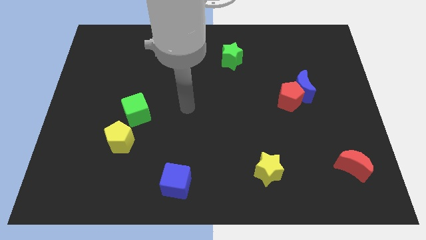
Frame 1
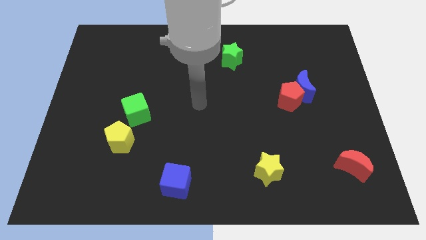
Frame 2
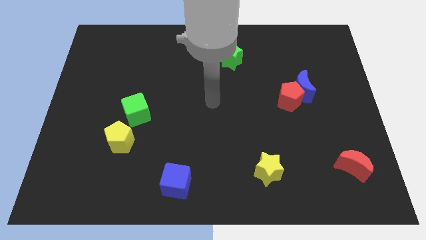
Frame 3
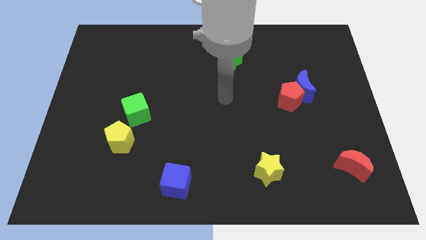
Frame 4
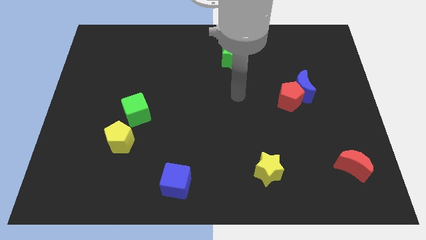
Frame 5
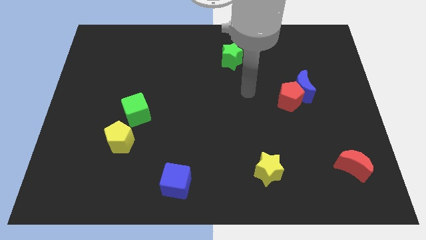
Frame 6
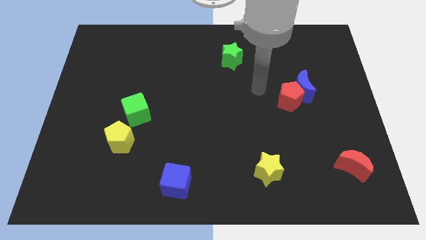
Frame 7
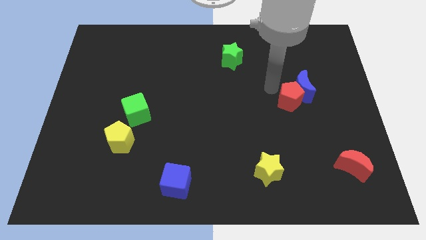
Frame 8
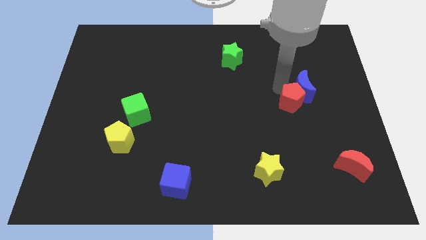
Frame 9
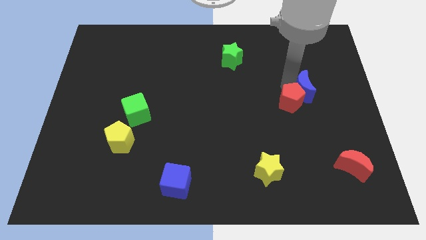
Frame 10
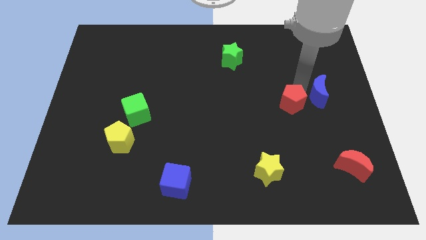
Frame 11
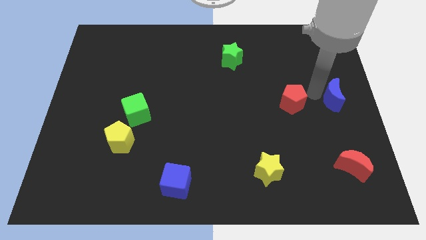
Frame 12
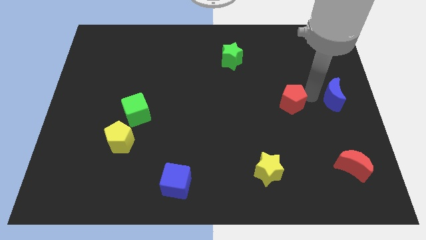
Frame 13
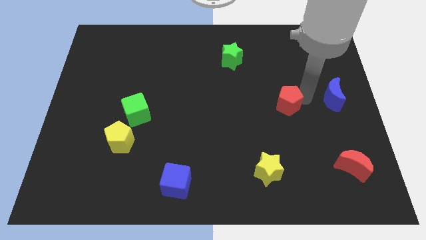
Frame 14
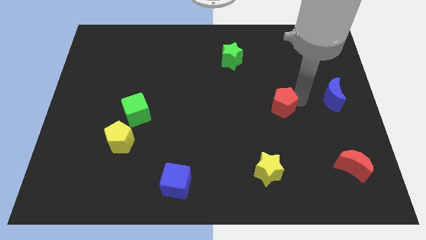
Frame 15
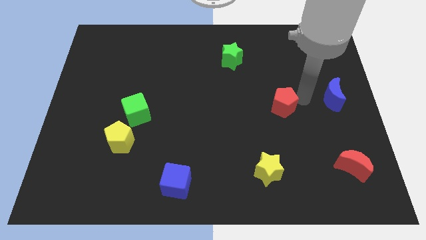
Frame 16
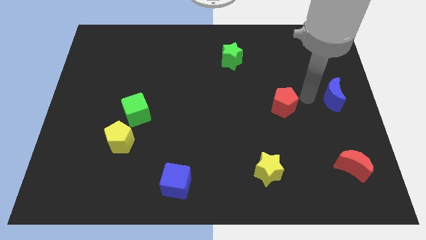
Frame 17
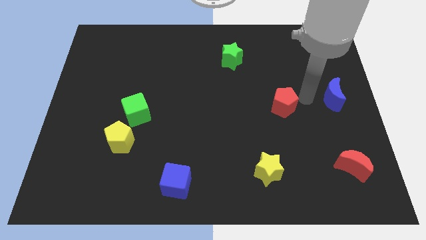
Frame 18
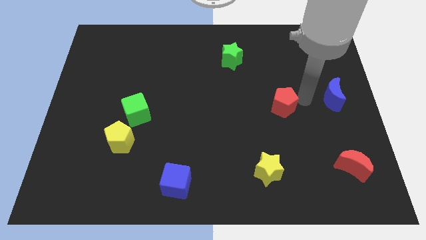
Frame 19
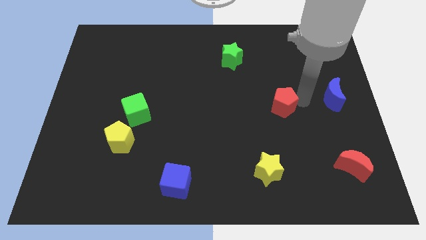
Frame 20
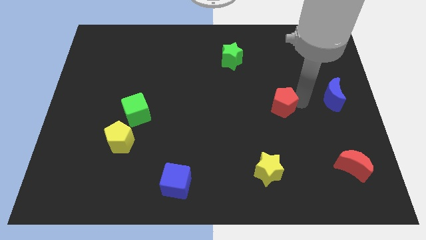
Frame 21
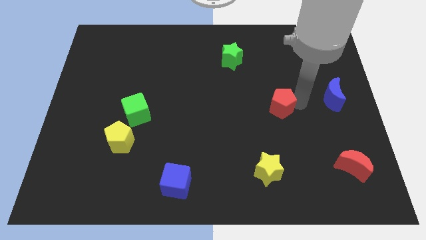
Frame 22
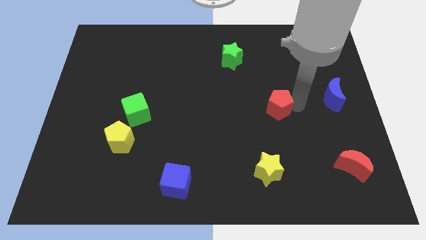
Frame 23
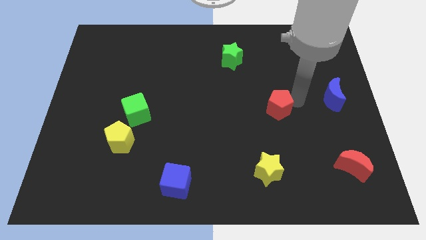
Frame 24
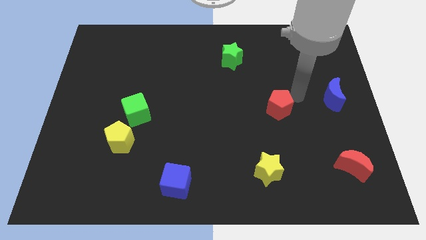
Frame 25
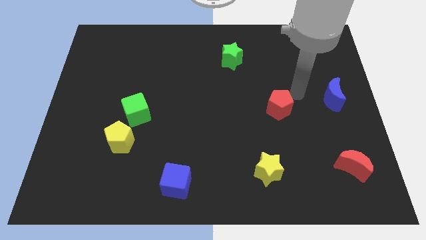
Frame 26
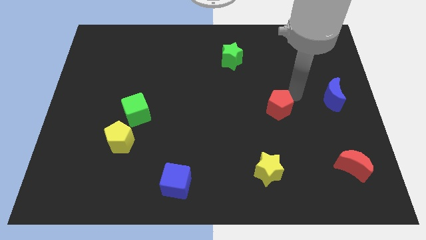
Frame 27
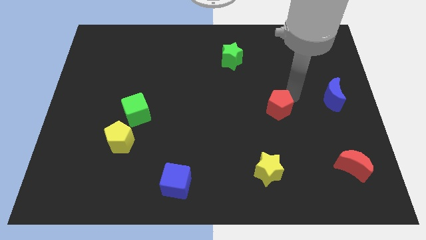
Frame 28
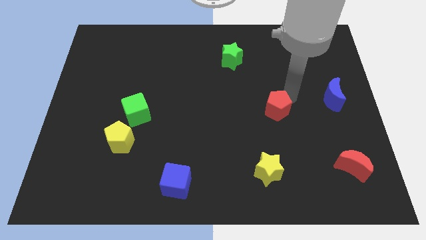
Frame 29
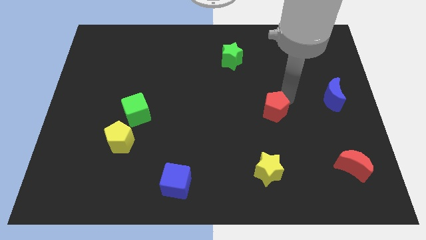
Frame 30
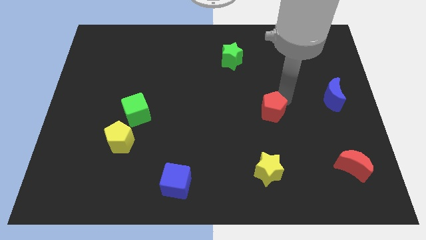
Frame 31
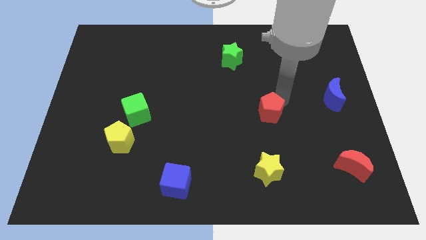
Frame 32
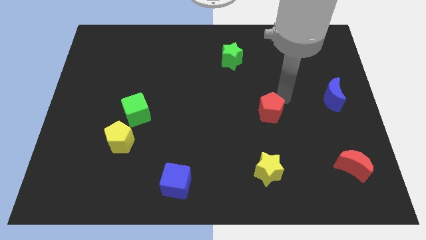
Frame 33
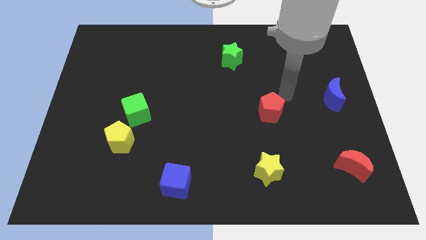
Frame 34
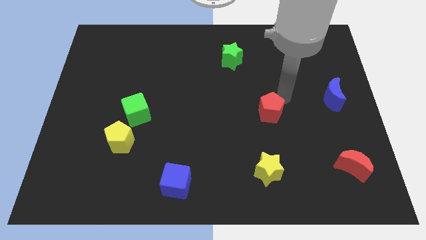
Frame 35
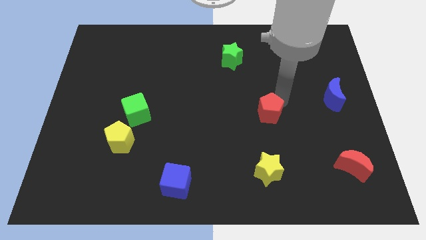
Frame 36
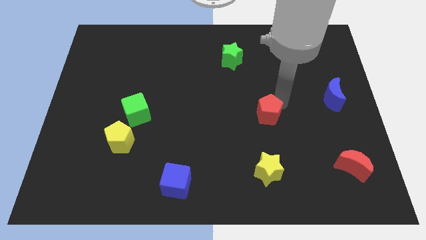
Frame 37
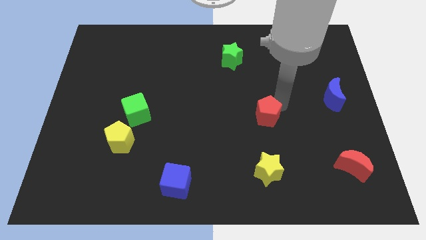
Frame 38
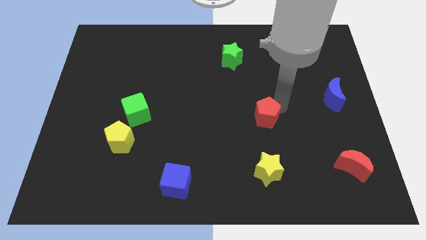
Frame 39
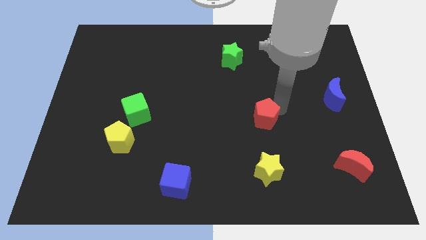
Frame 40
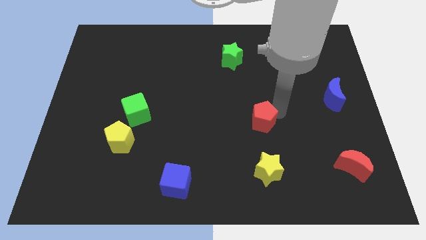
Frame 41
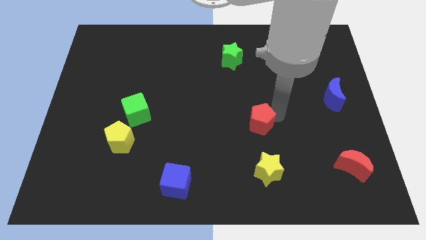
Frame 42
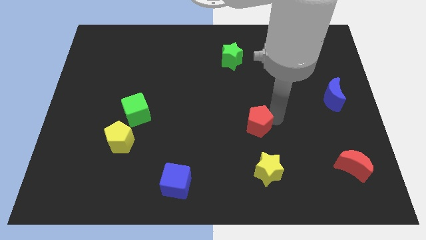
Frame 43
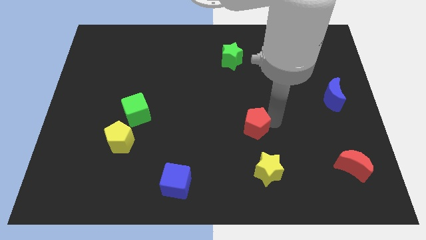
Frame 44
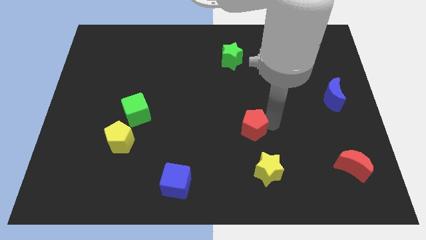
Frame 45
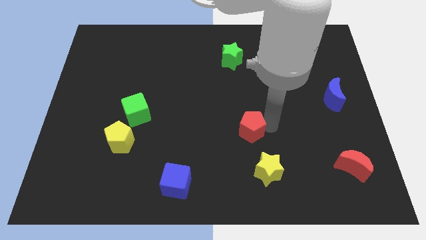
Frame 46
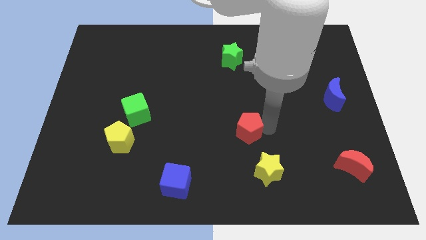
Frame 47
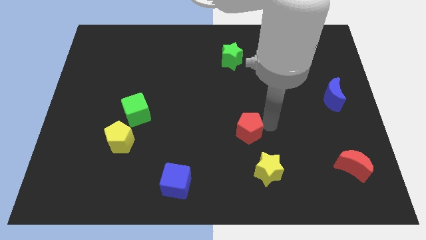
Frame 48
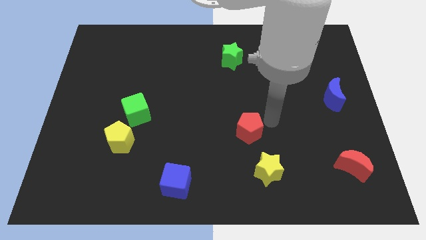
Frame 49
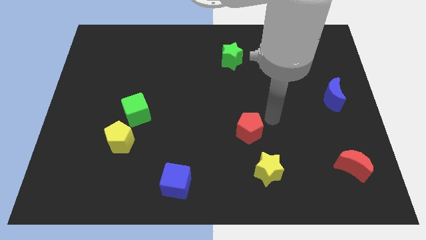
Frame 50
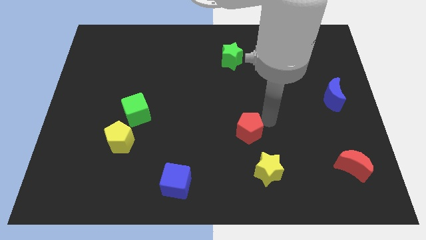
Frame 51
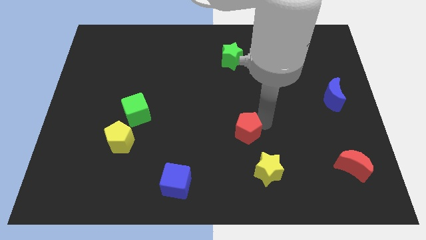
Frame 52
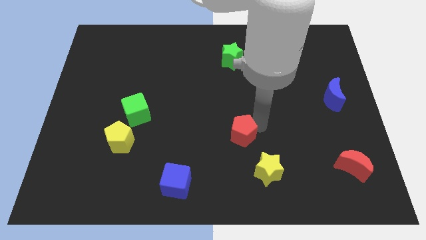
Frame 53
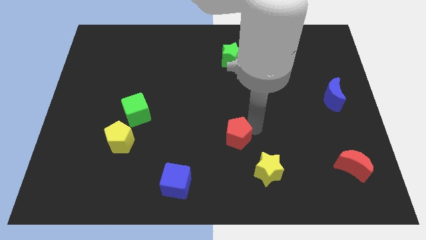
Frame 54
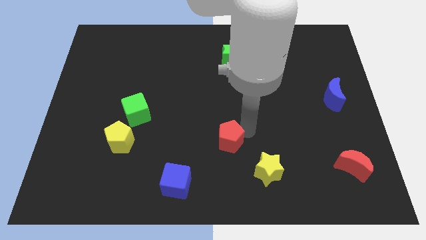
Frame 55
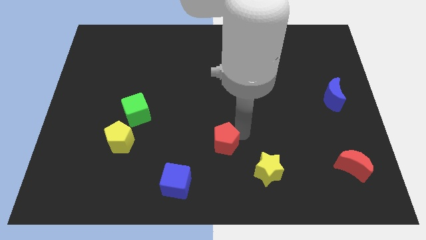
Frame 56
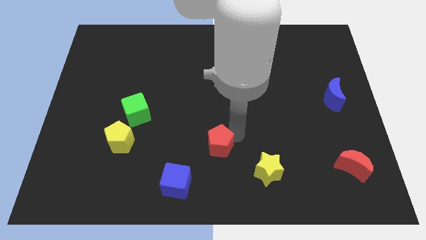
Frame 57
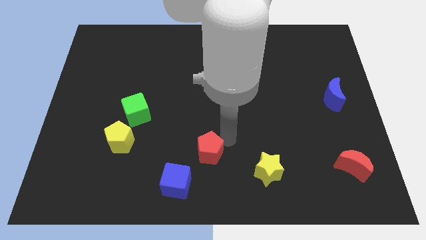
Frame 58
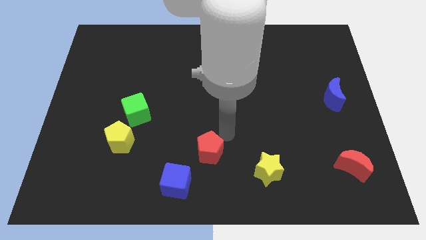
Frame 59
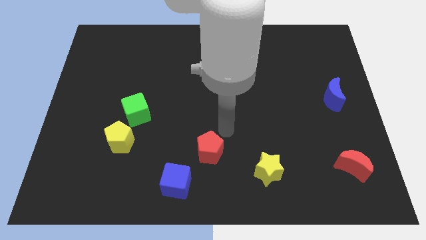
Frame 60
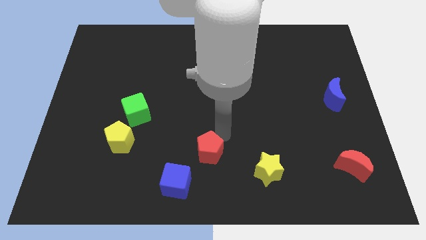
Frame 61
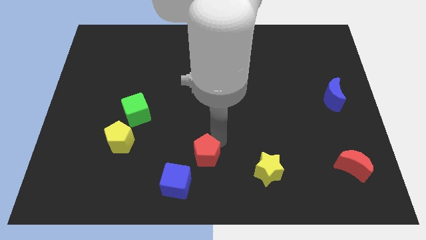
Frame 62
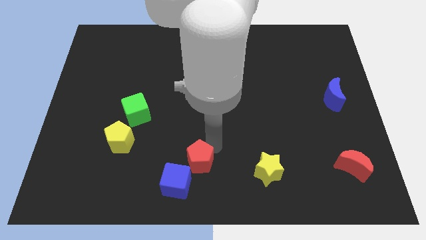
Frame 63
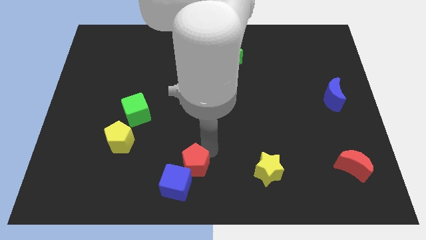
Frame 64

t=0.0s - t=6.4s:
move the red pentagon close to the blue cube
